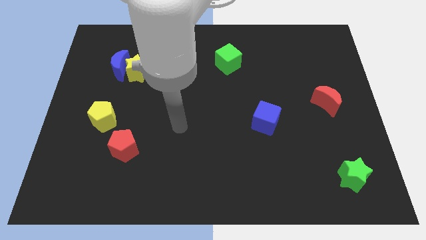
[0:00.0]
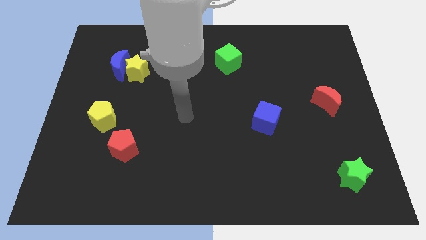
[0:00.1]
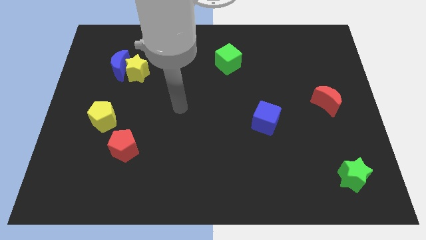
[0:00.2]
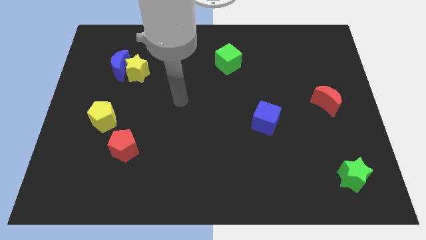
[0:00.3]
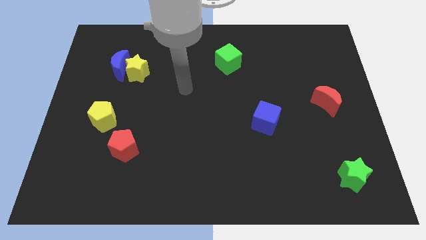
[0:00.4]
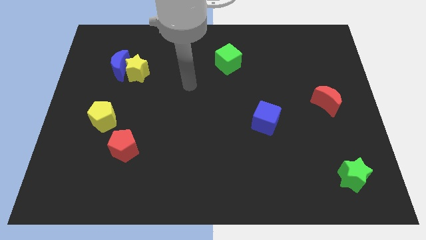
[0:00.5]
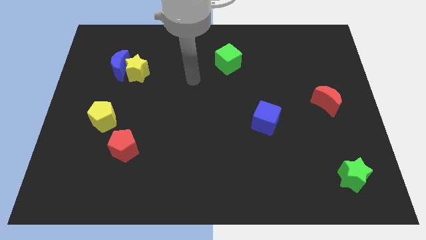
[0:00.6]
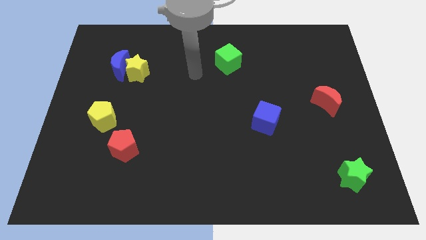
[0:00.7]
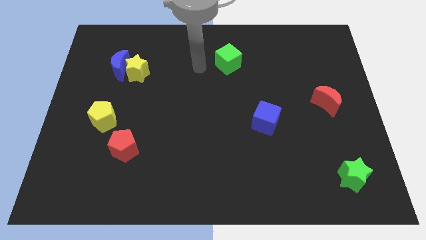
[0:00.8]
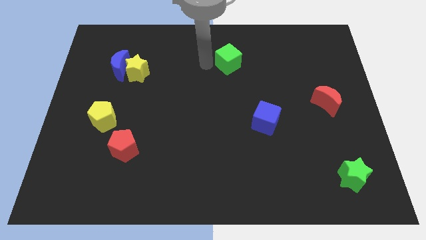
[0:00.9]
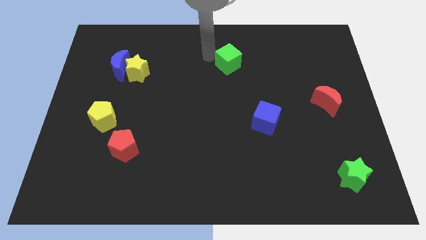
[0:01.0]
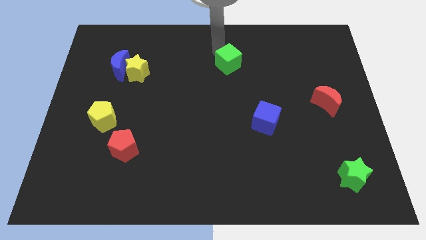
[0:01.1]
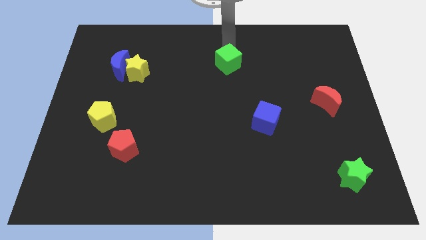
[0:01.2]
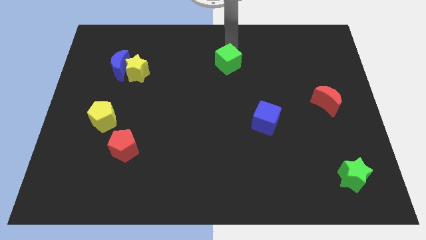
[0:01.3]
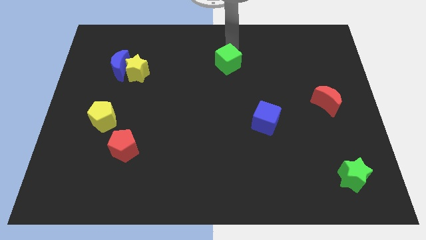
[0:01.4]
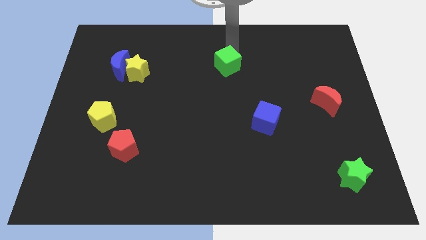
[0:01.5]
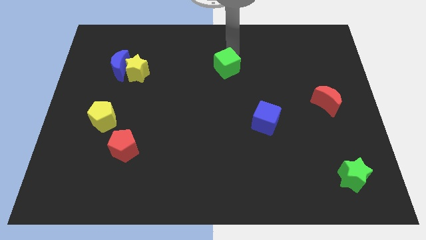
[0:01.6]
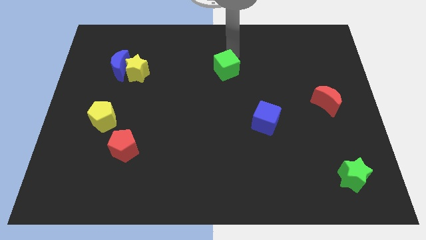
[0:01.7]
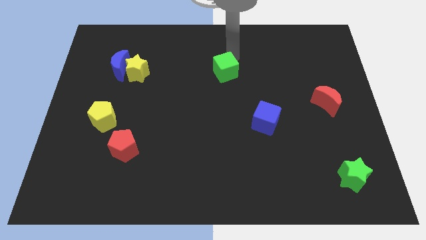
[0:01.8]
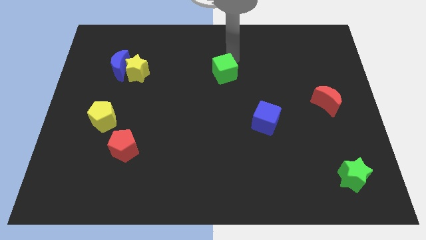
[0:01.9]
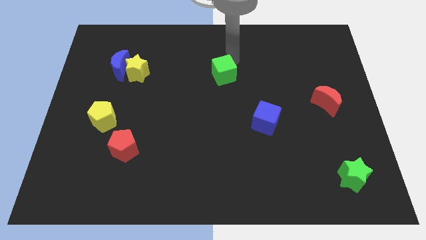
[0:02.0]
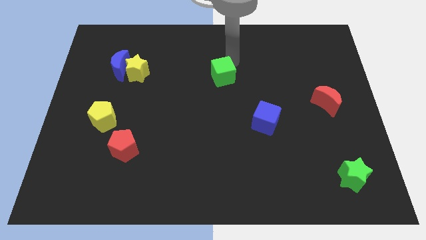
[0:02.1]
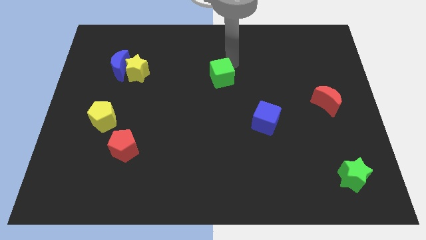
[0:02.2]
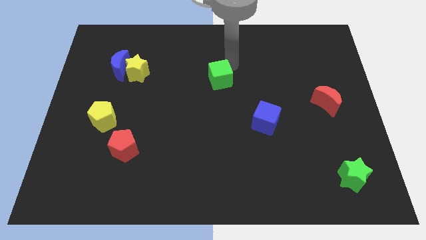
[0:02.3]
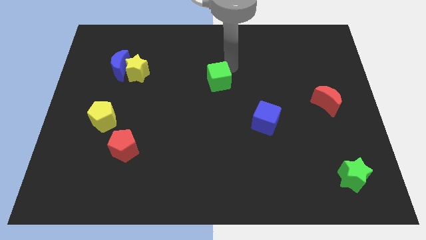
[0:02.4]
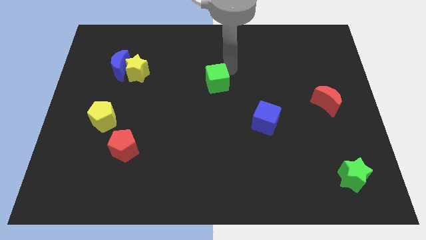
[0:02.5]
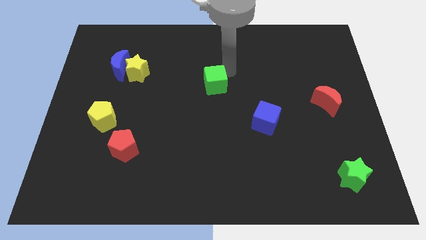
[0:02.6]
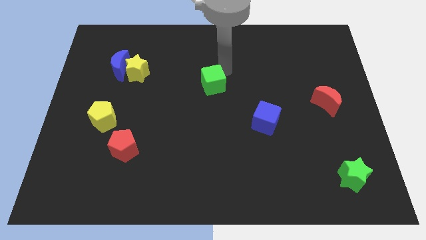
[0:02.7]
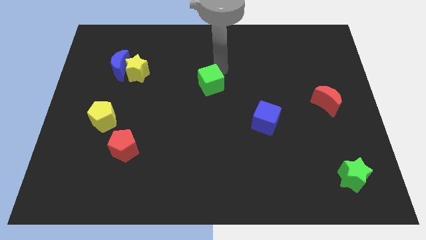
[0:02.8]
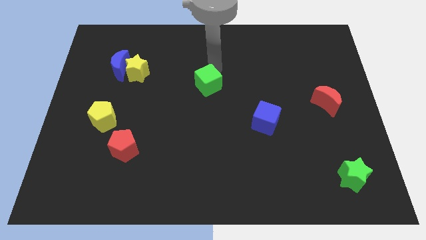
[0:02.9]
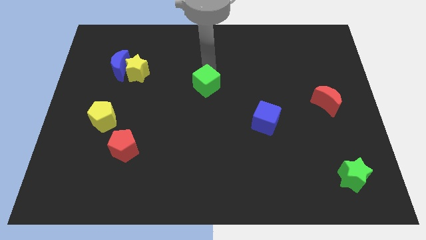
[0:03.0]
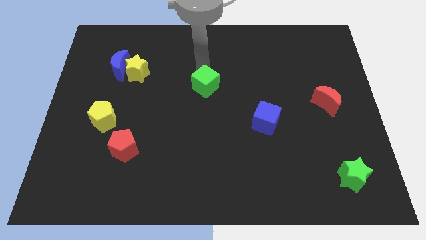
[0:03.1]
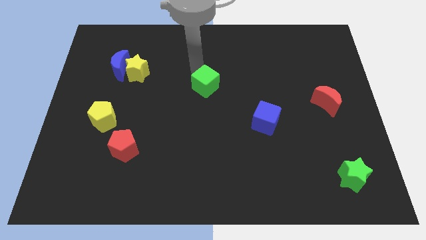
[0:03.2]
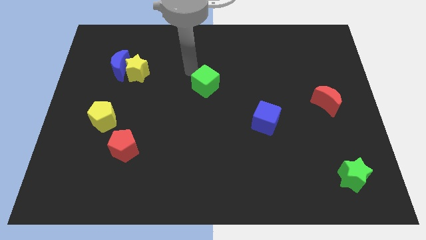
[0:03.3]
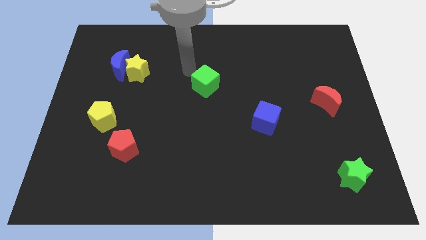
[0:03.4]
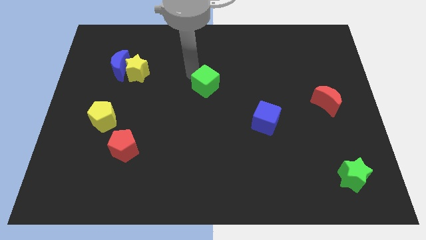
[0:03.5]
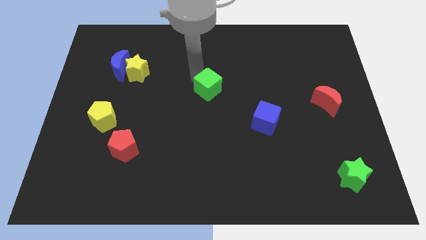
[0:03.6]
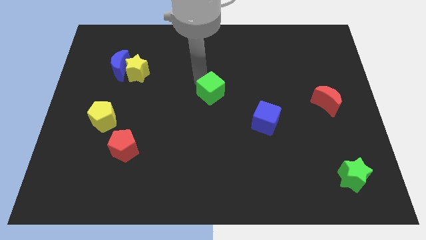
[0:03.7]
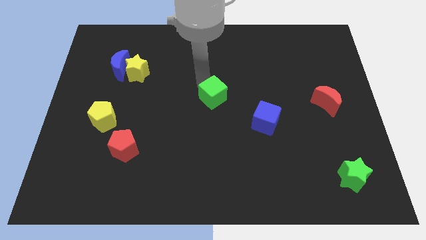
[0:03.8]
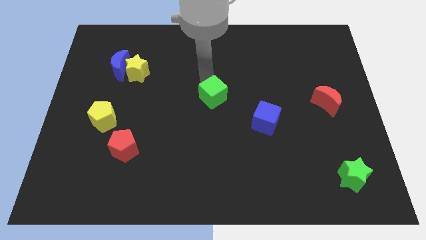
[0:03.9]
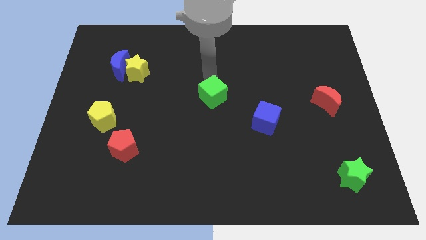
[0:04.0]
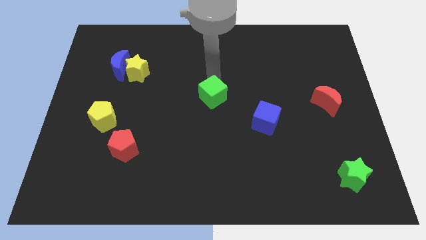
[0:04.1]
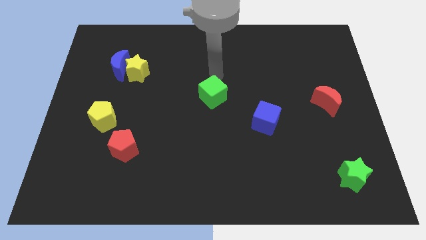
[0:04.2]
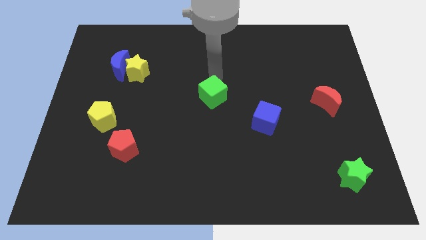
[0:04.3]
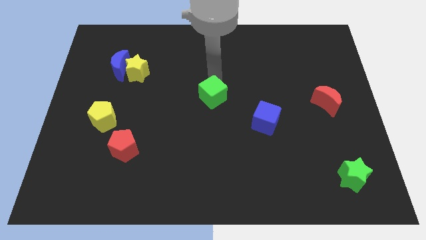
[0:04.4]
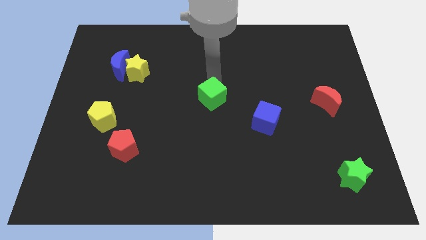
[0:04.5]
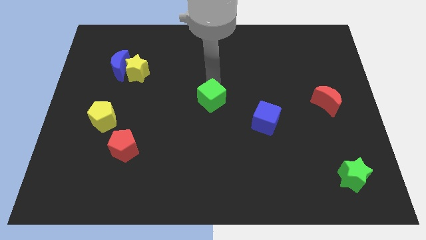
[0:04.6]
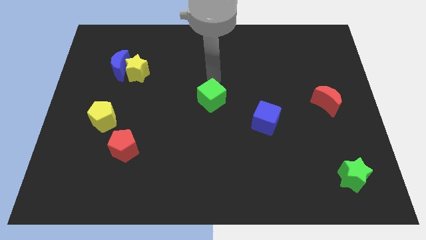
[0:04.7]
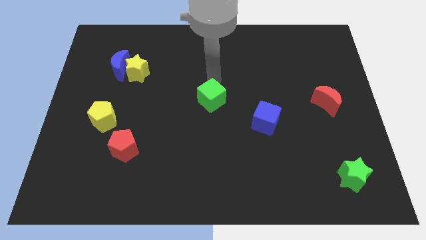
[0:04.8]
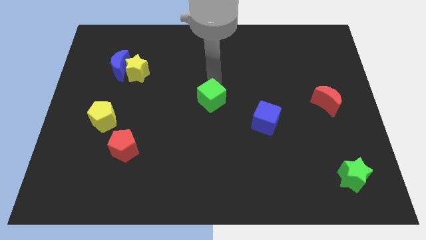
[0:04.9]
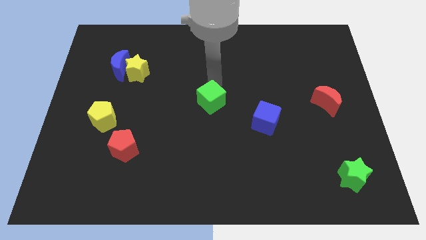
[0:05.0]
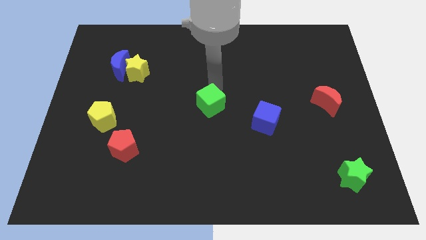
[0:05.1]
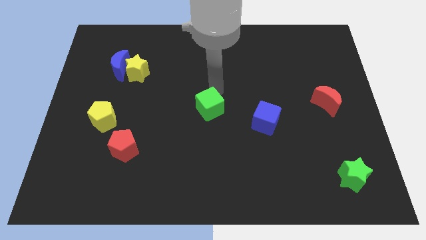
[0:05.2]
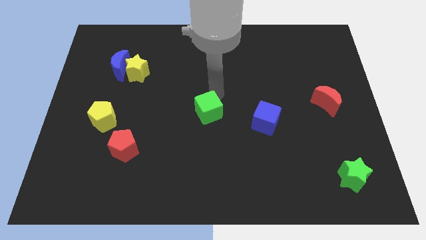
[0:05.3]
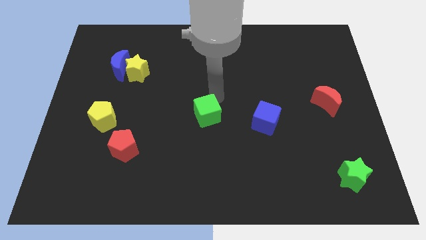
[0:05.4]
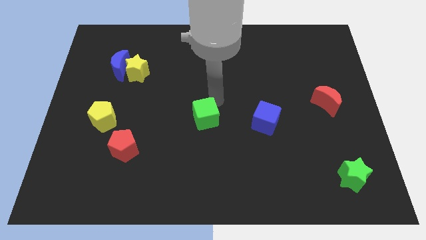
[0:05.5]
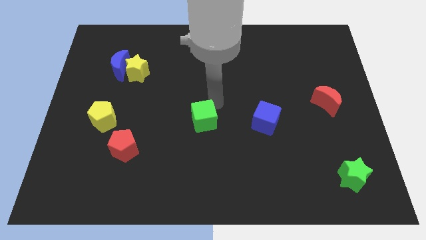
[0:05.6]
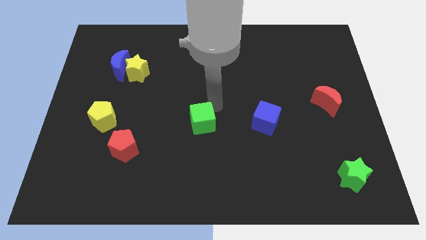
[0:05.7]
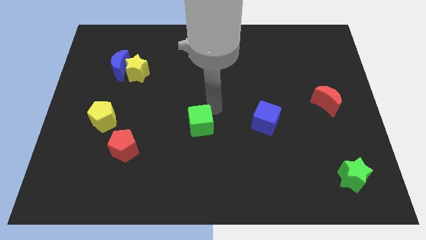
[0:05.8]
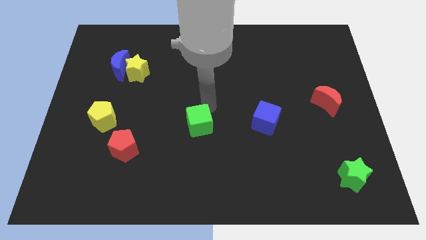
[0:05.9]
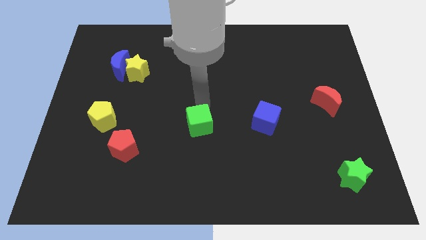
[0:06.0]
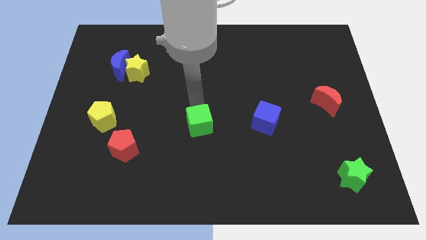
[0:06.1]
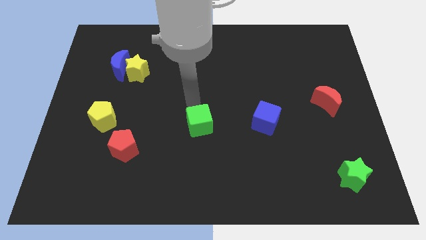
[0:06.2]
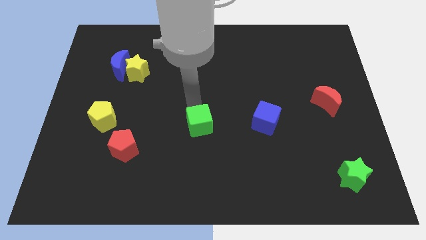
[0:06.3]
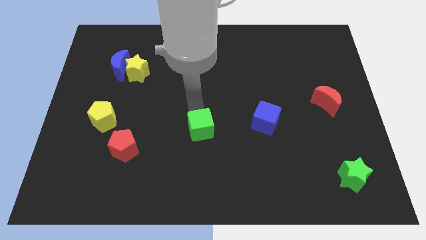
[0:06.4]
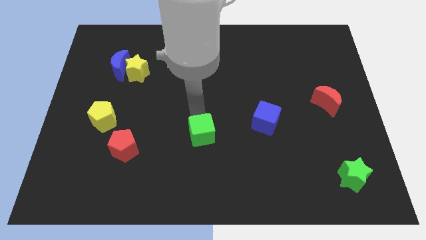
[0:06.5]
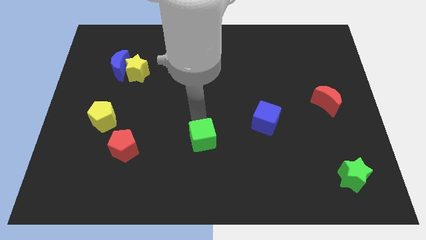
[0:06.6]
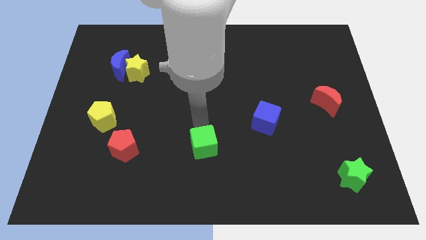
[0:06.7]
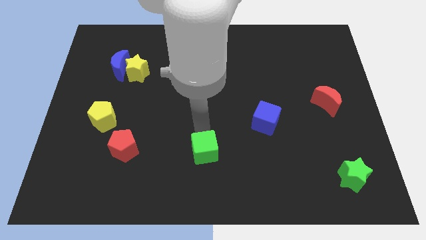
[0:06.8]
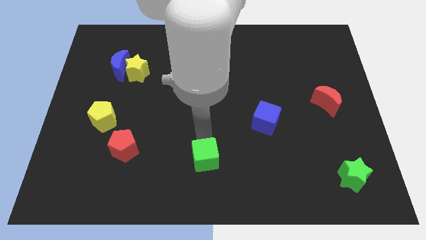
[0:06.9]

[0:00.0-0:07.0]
put the green cube to the bottom side

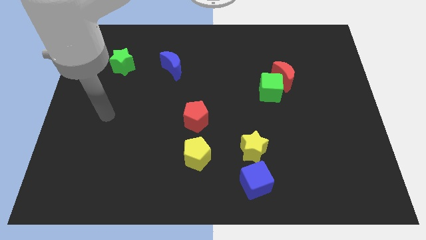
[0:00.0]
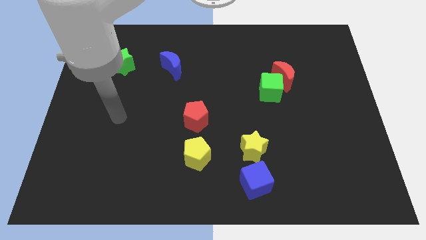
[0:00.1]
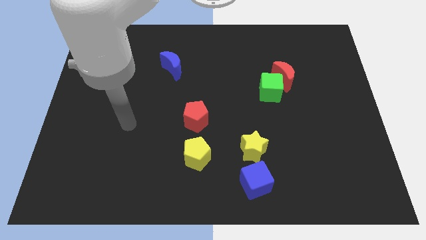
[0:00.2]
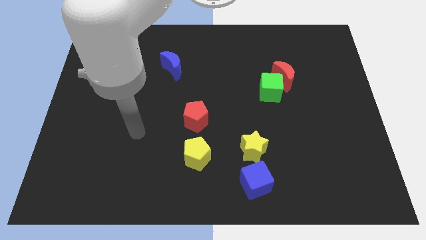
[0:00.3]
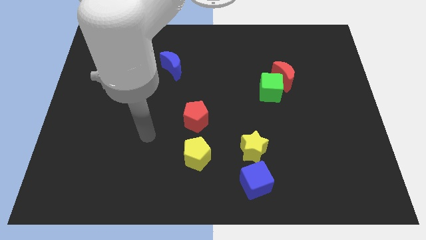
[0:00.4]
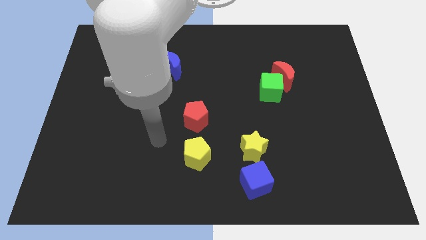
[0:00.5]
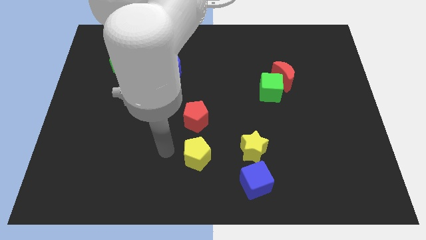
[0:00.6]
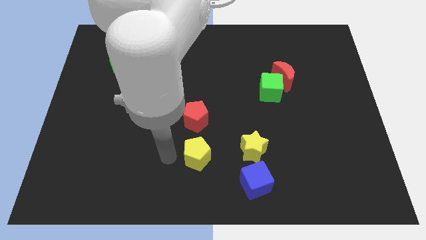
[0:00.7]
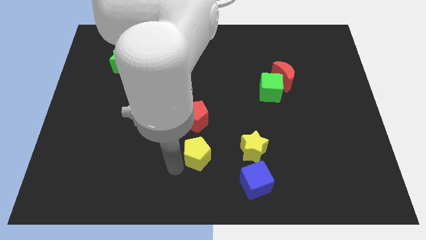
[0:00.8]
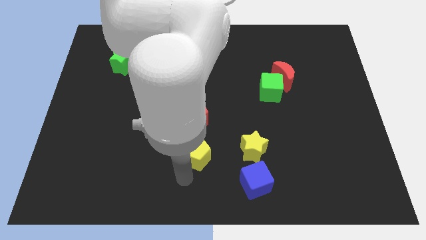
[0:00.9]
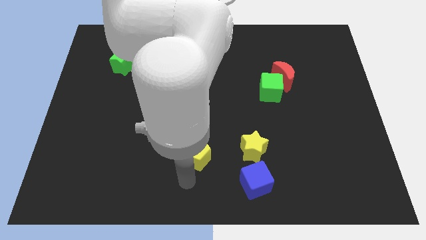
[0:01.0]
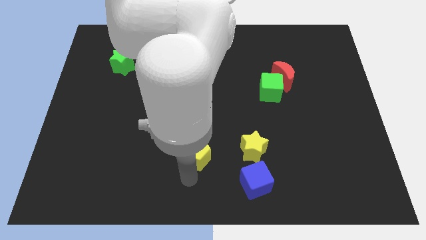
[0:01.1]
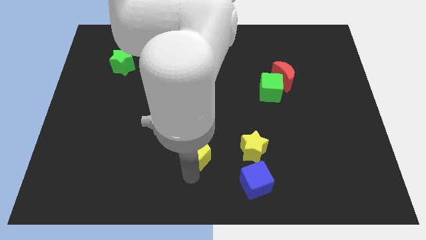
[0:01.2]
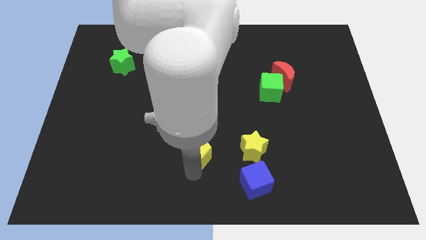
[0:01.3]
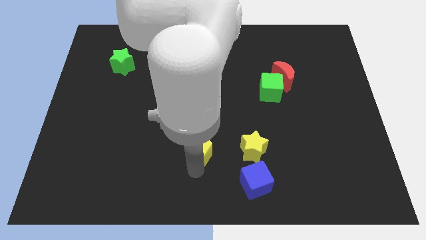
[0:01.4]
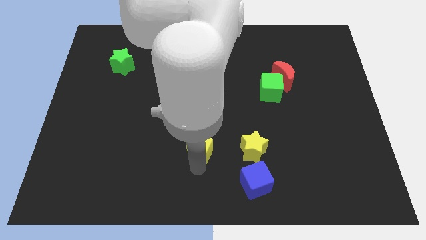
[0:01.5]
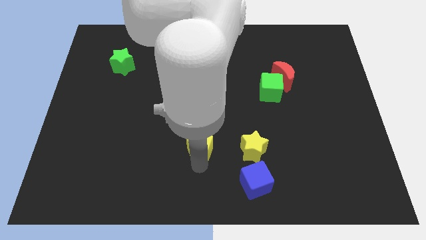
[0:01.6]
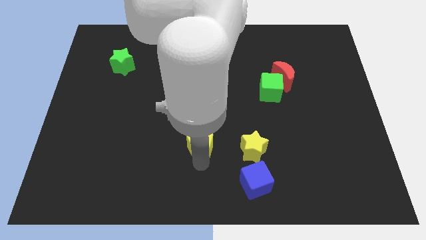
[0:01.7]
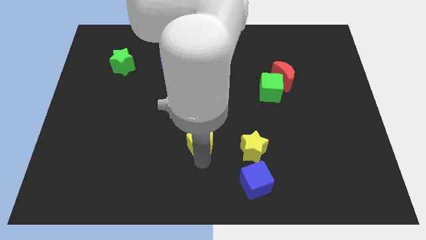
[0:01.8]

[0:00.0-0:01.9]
slide the yellow pentagon to the middle
